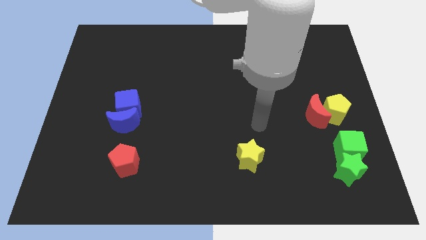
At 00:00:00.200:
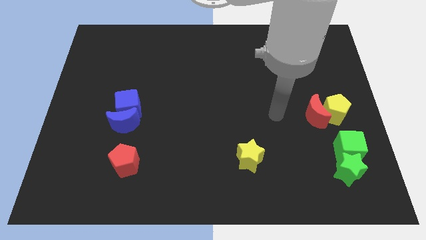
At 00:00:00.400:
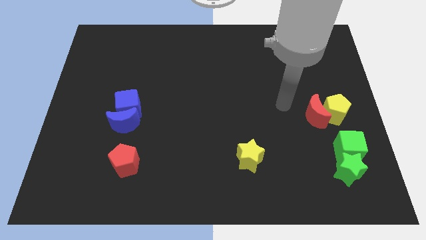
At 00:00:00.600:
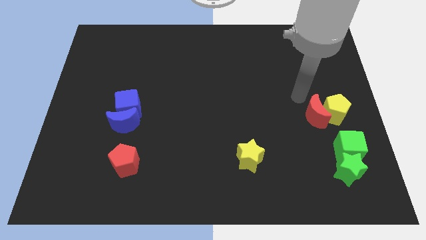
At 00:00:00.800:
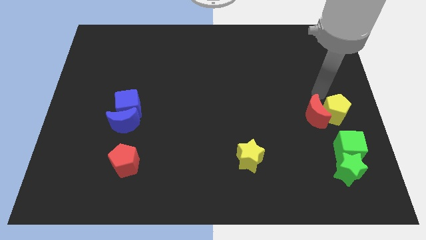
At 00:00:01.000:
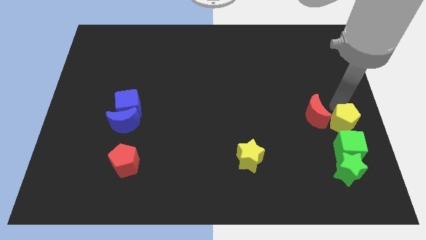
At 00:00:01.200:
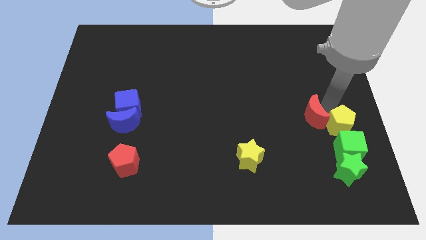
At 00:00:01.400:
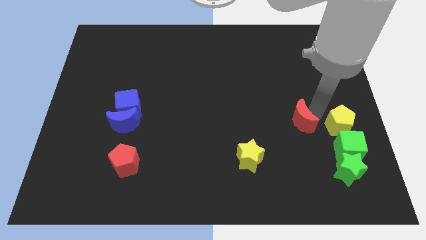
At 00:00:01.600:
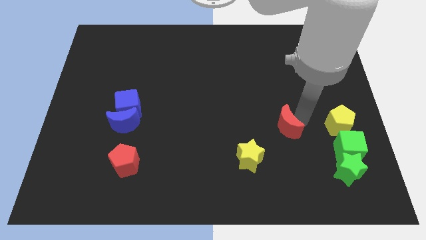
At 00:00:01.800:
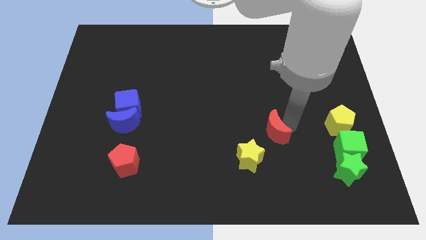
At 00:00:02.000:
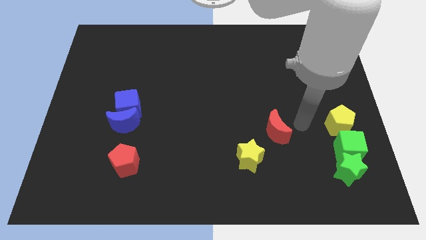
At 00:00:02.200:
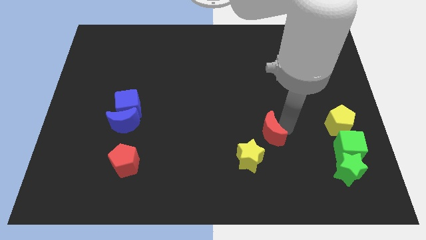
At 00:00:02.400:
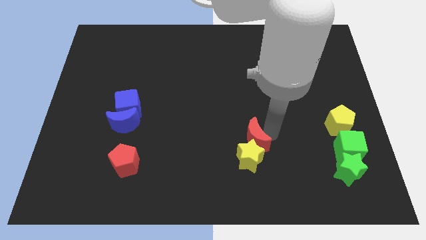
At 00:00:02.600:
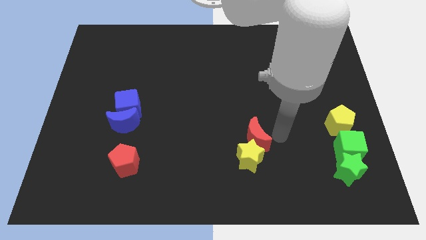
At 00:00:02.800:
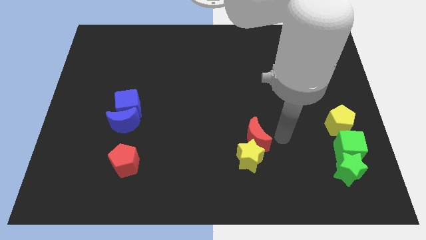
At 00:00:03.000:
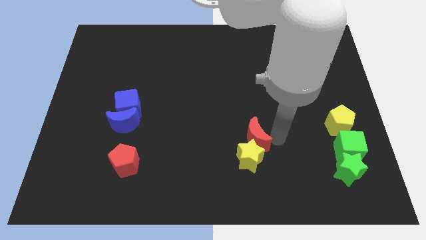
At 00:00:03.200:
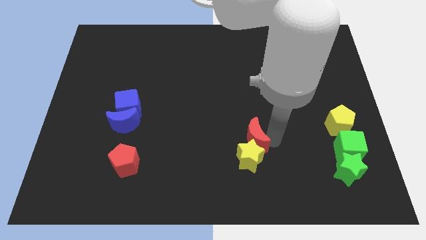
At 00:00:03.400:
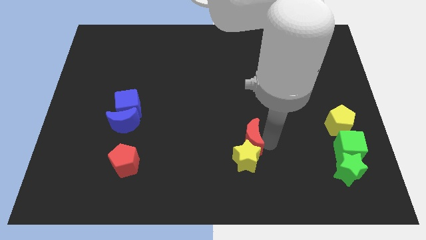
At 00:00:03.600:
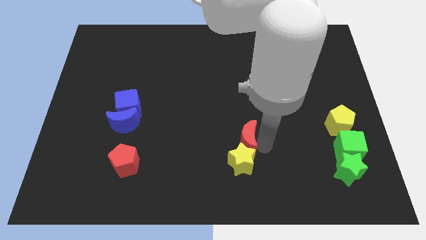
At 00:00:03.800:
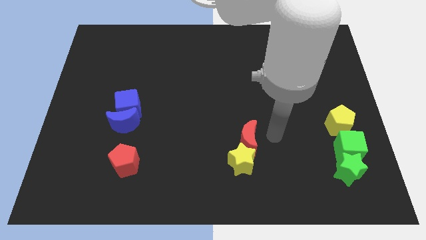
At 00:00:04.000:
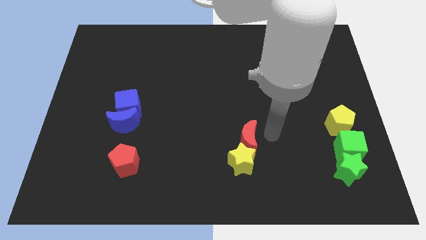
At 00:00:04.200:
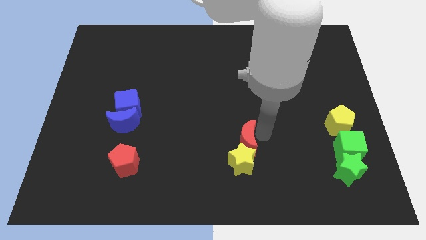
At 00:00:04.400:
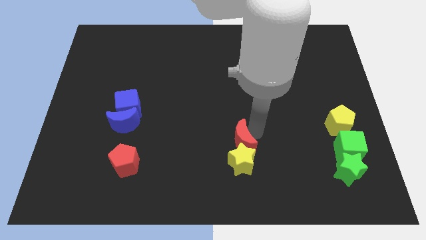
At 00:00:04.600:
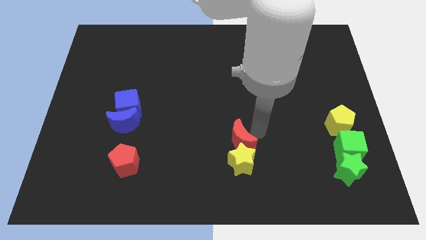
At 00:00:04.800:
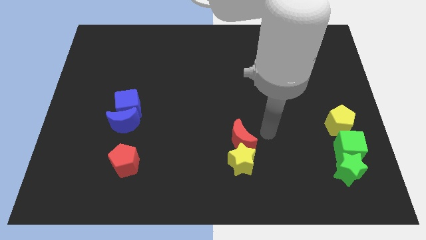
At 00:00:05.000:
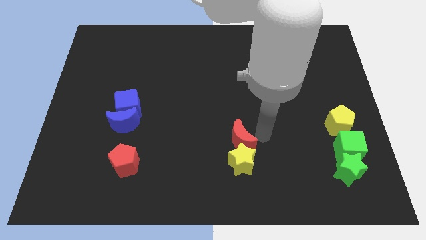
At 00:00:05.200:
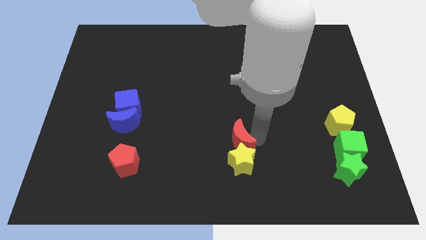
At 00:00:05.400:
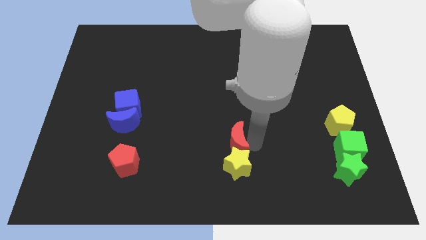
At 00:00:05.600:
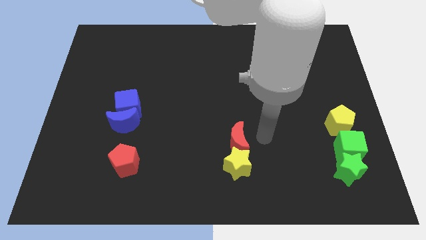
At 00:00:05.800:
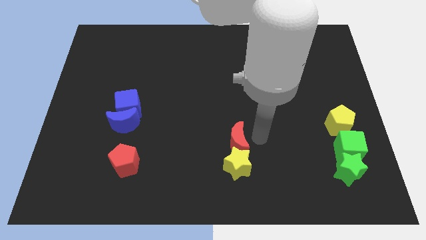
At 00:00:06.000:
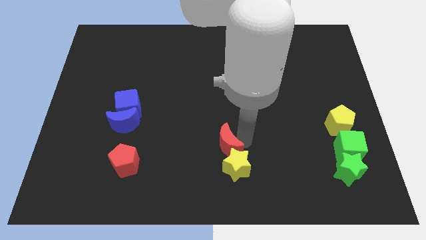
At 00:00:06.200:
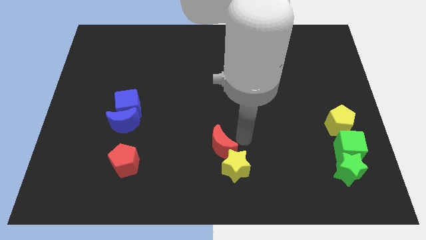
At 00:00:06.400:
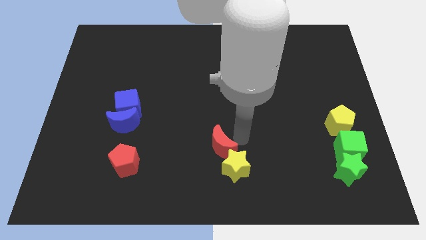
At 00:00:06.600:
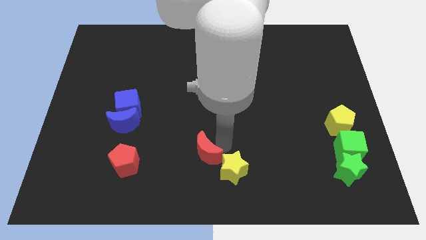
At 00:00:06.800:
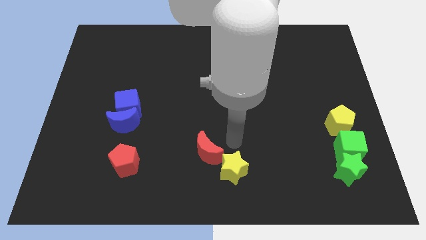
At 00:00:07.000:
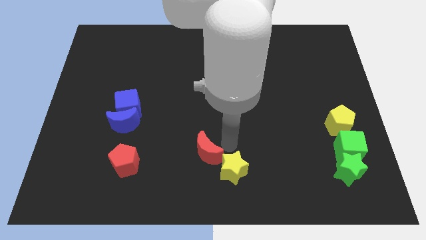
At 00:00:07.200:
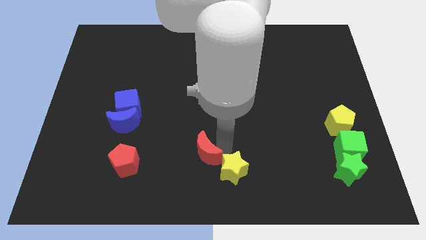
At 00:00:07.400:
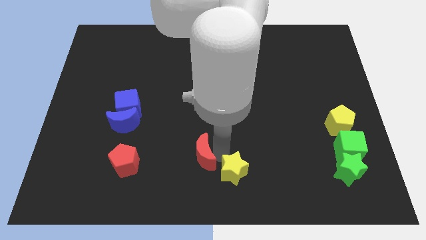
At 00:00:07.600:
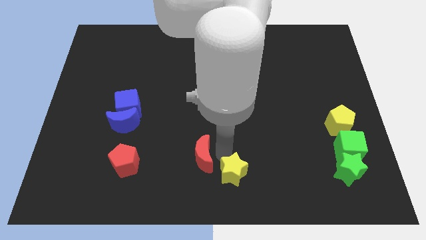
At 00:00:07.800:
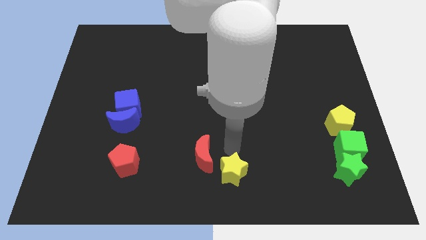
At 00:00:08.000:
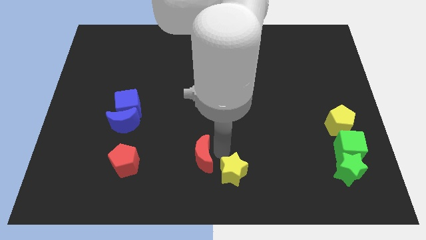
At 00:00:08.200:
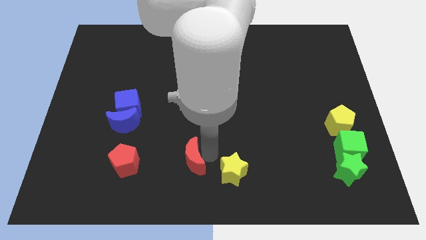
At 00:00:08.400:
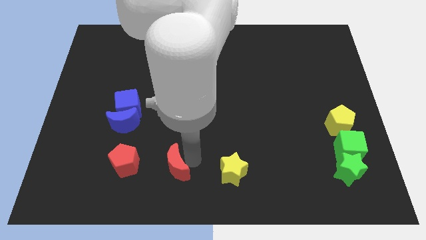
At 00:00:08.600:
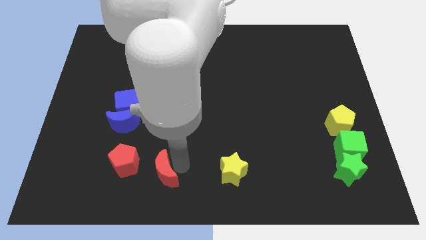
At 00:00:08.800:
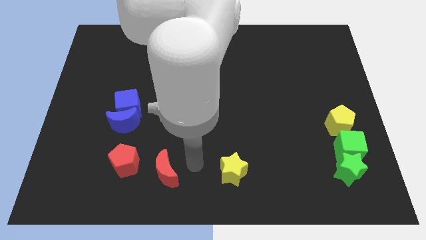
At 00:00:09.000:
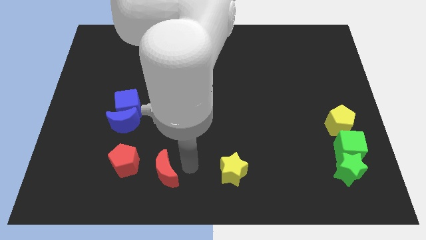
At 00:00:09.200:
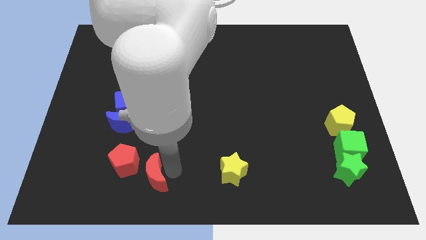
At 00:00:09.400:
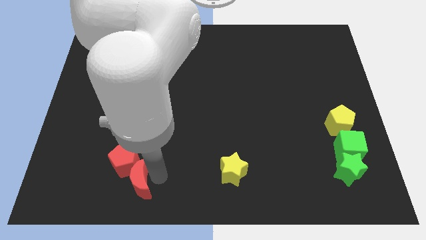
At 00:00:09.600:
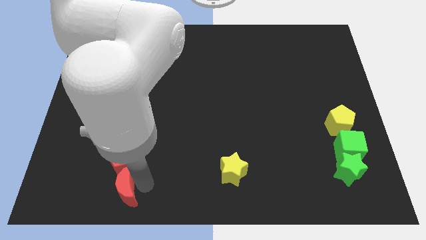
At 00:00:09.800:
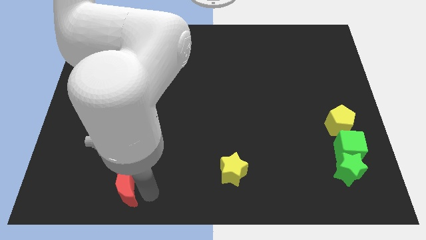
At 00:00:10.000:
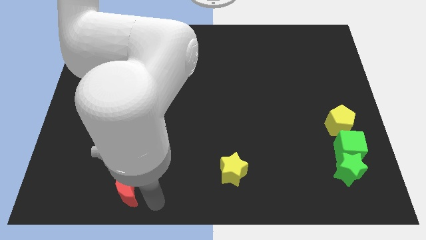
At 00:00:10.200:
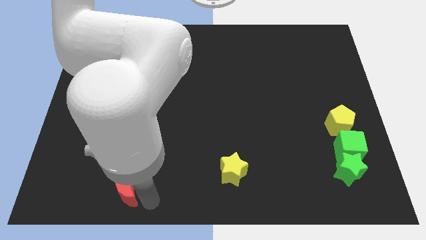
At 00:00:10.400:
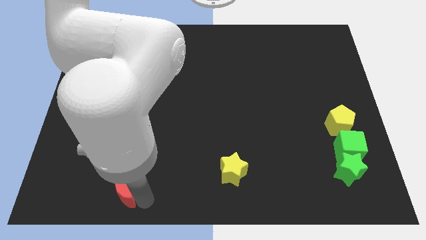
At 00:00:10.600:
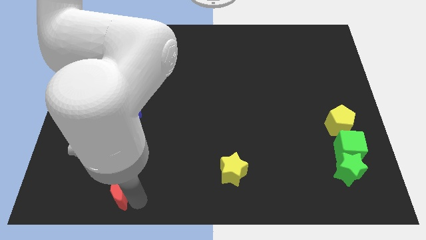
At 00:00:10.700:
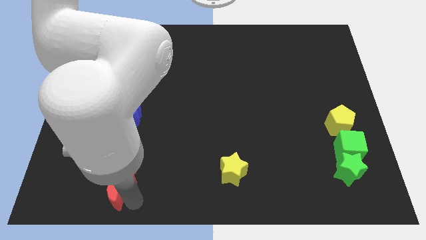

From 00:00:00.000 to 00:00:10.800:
put the red moon to the bottom side of the blue moon

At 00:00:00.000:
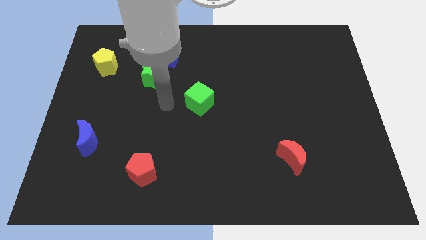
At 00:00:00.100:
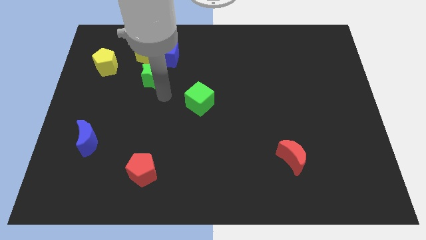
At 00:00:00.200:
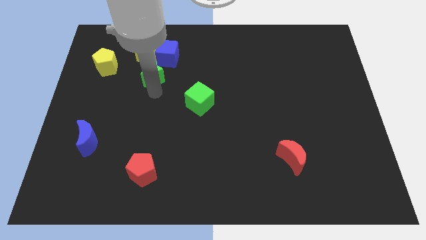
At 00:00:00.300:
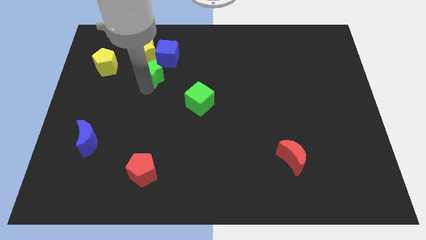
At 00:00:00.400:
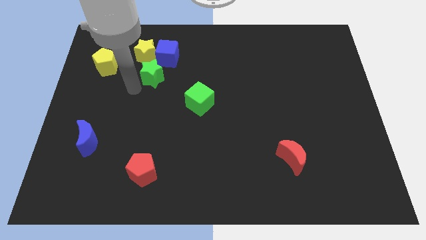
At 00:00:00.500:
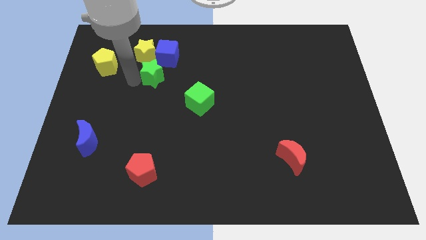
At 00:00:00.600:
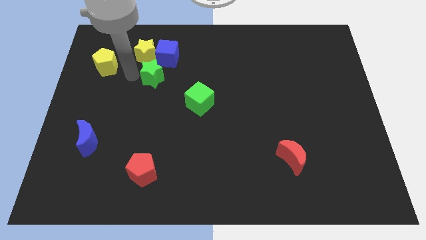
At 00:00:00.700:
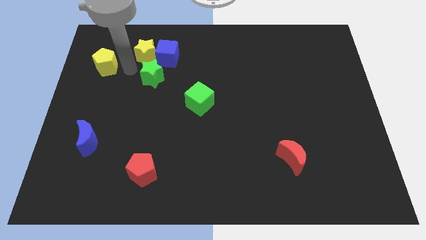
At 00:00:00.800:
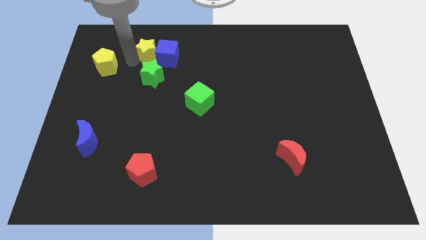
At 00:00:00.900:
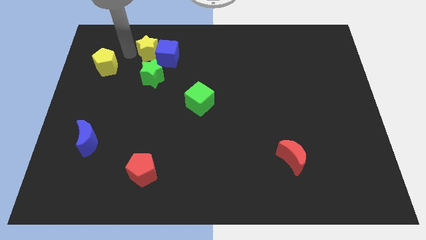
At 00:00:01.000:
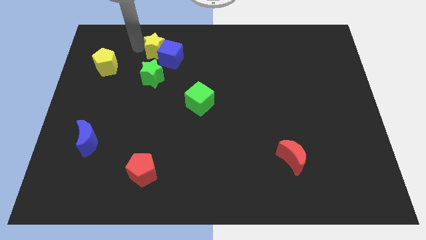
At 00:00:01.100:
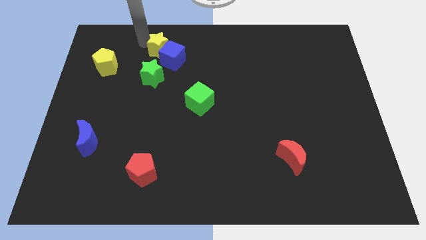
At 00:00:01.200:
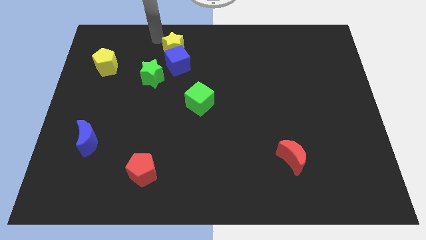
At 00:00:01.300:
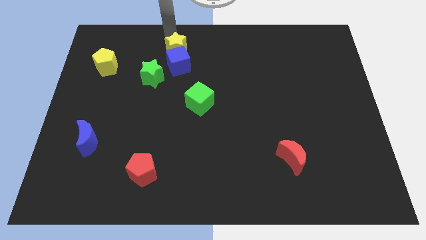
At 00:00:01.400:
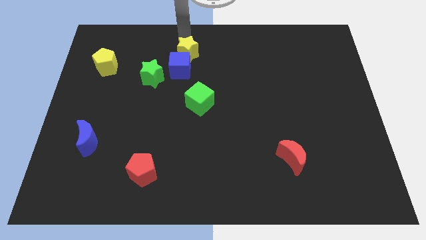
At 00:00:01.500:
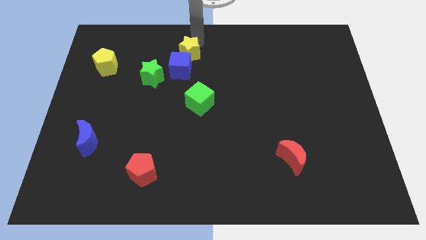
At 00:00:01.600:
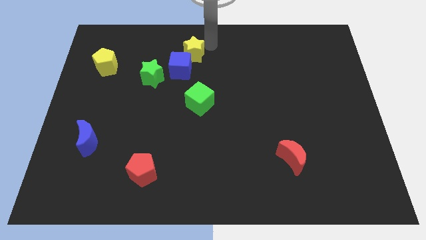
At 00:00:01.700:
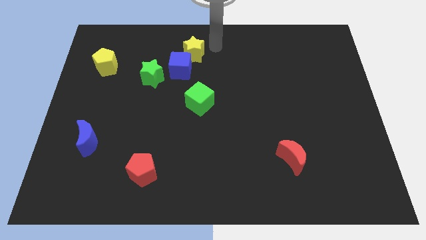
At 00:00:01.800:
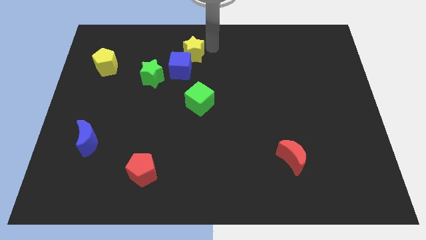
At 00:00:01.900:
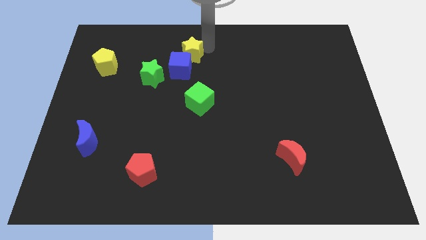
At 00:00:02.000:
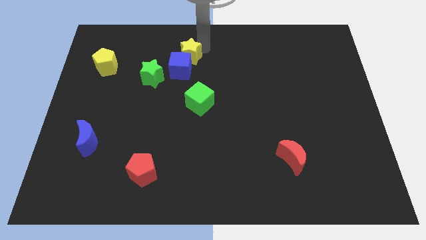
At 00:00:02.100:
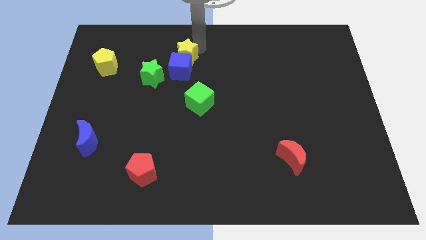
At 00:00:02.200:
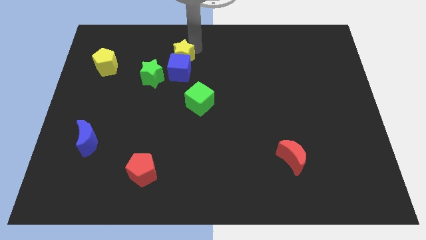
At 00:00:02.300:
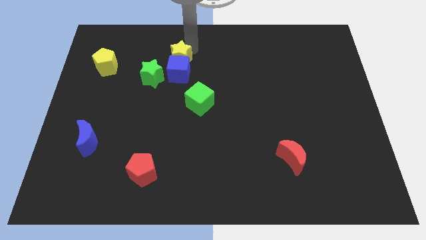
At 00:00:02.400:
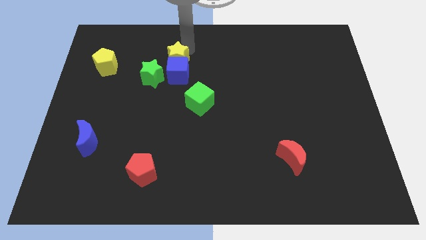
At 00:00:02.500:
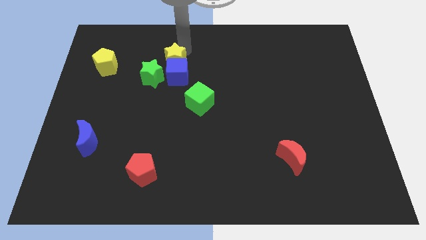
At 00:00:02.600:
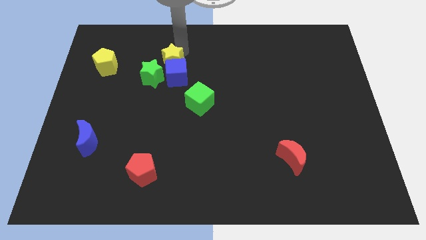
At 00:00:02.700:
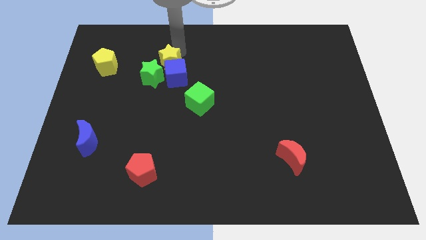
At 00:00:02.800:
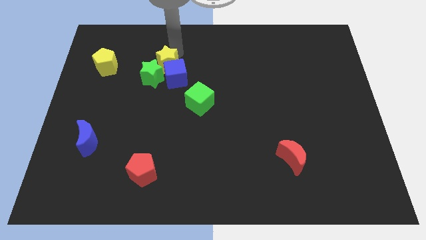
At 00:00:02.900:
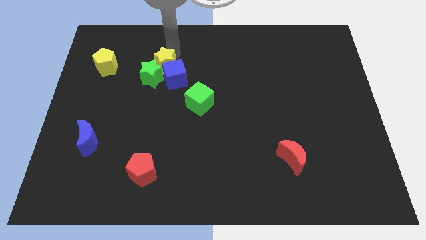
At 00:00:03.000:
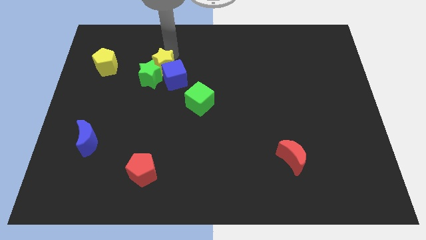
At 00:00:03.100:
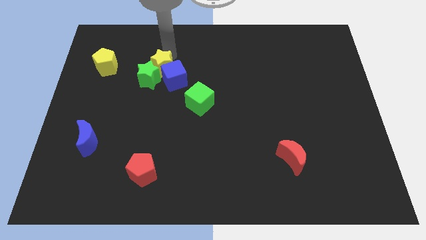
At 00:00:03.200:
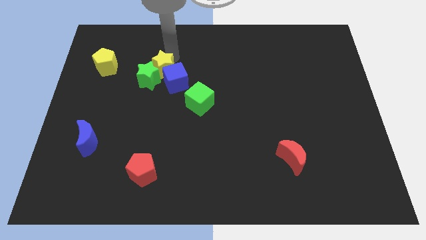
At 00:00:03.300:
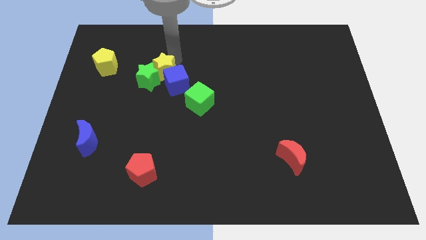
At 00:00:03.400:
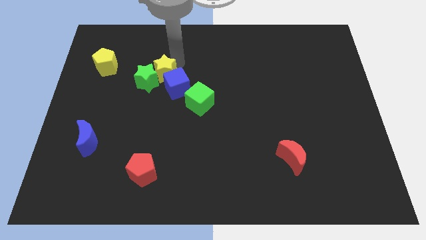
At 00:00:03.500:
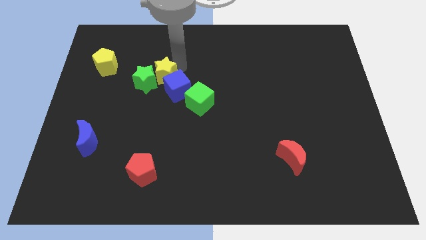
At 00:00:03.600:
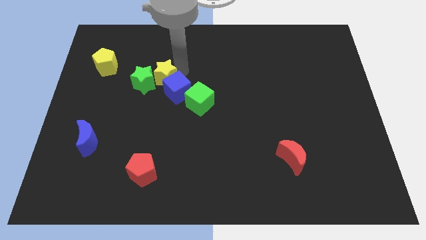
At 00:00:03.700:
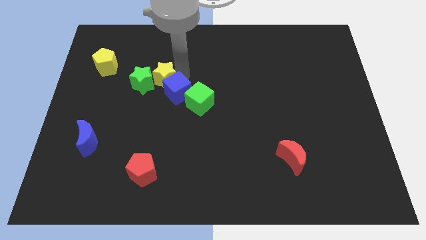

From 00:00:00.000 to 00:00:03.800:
move the yellow star to the bottom right side of the green star
